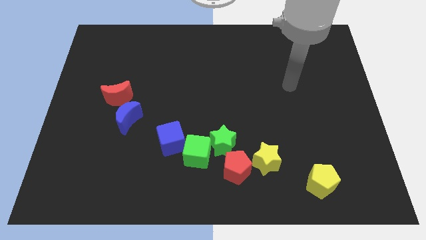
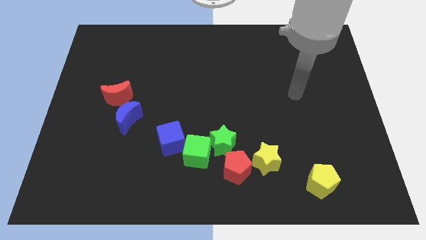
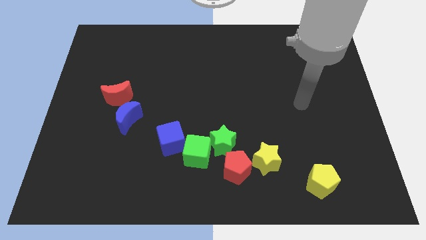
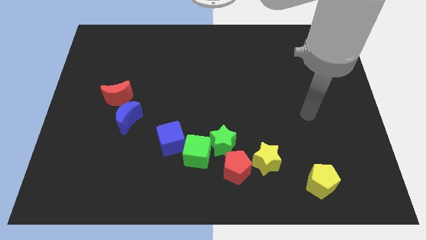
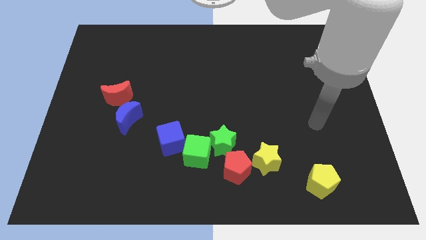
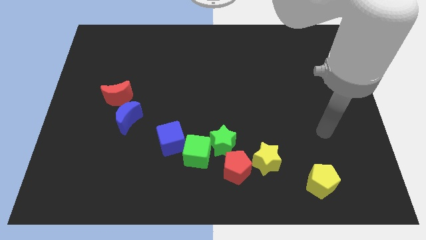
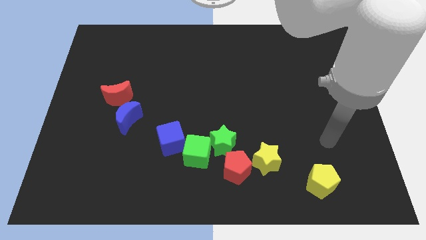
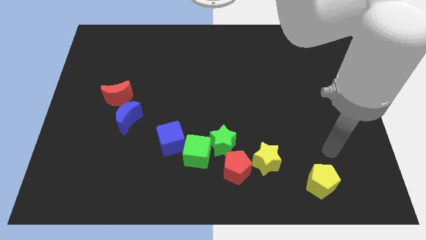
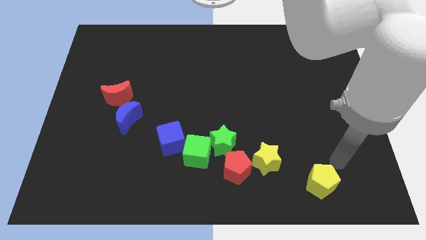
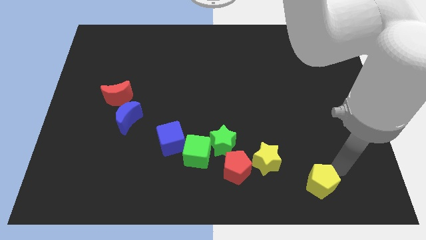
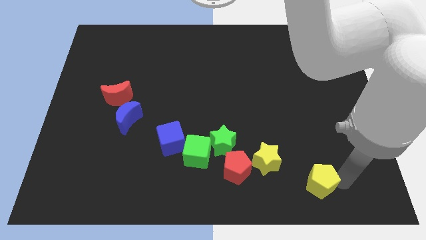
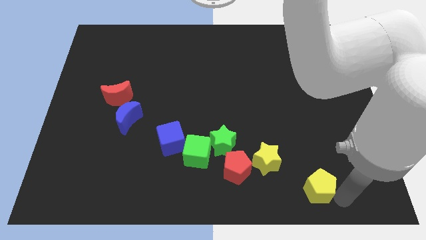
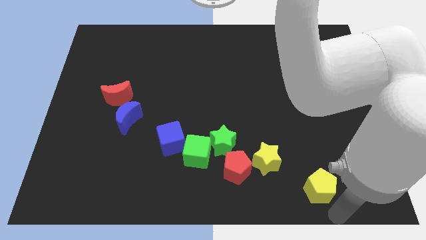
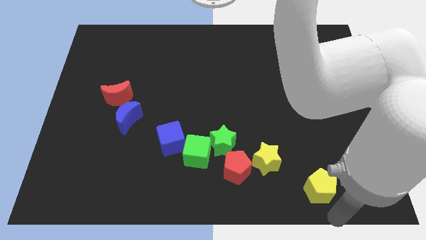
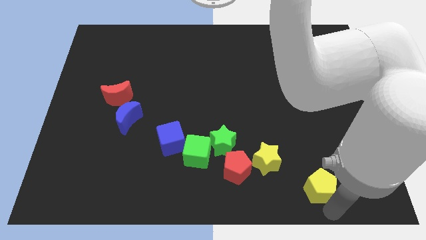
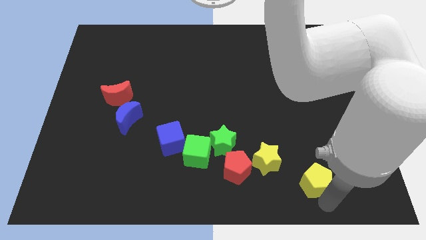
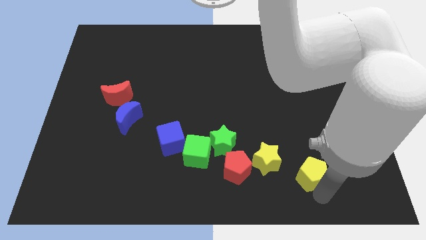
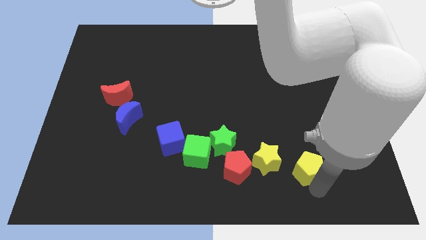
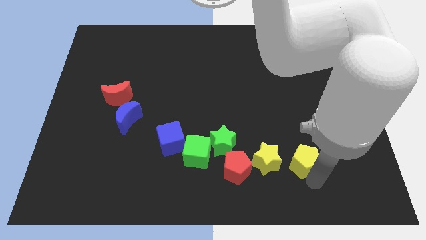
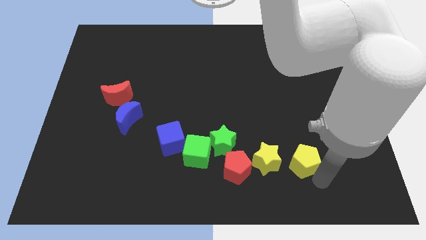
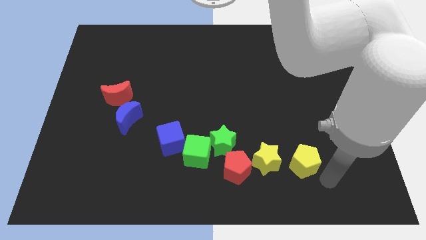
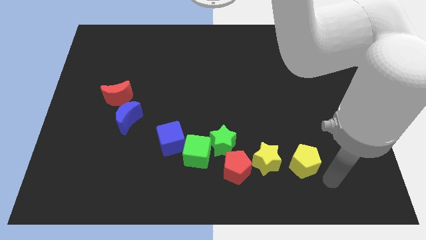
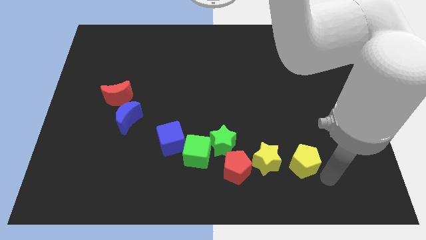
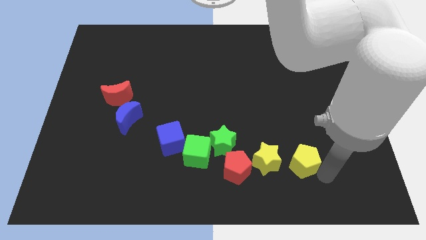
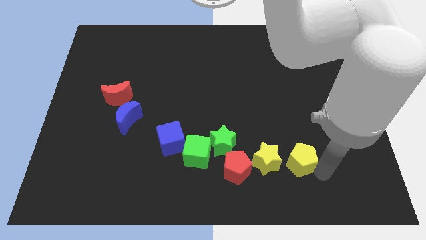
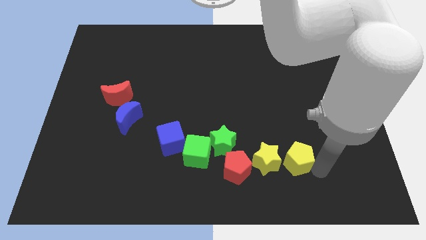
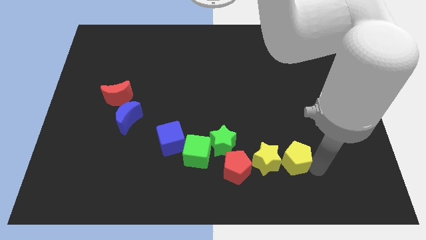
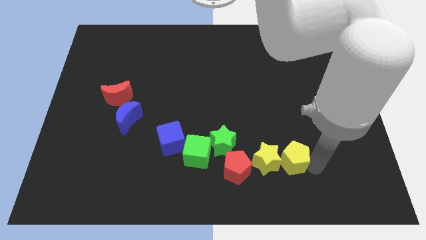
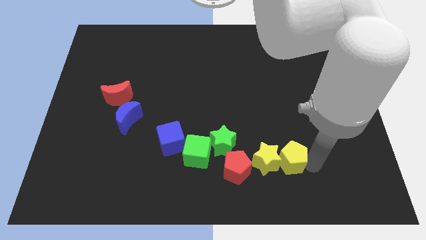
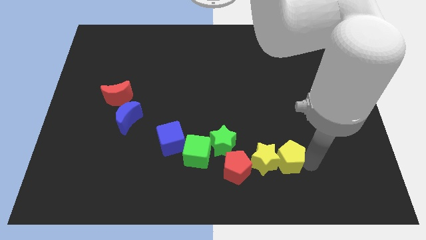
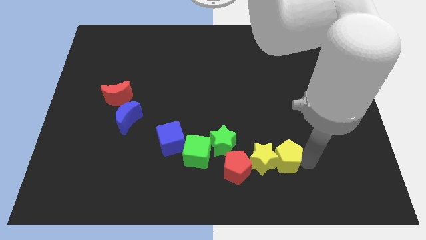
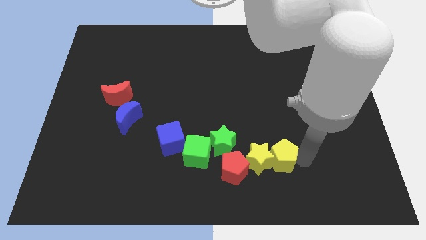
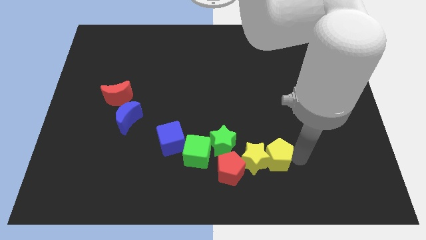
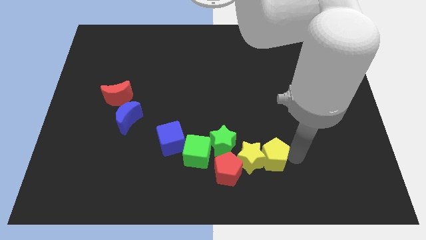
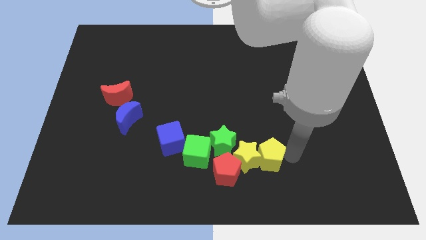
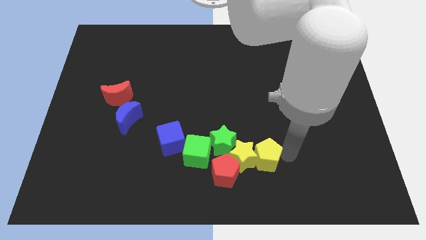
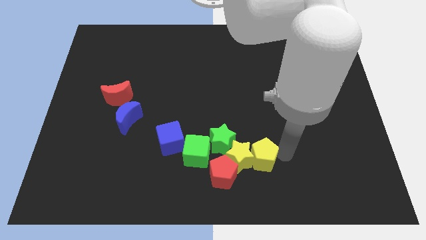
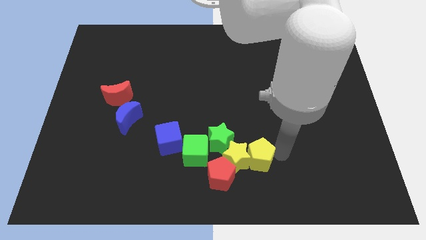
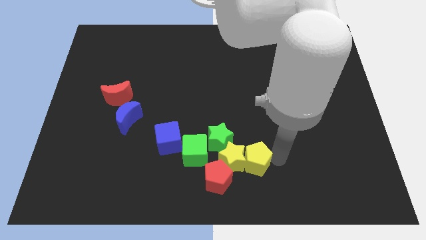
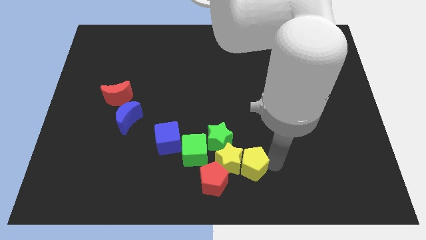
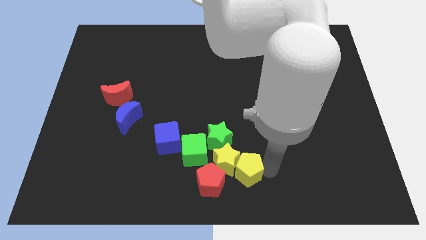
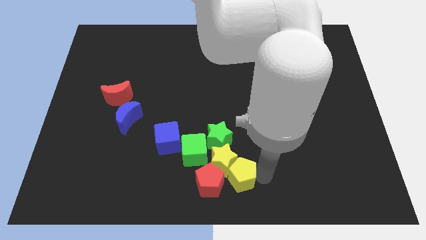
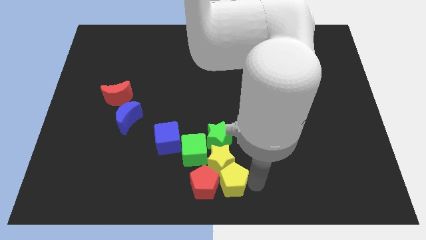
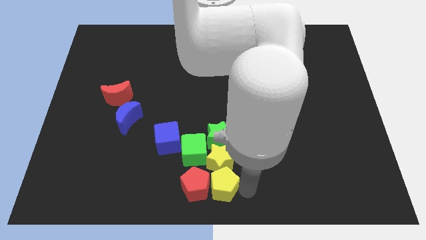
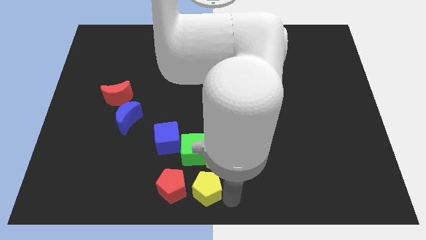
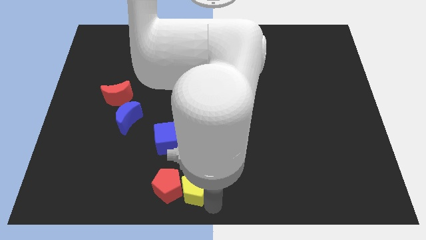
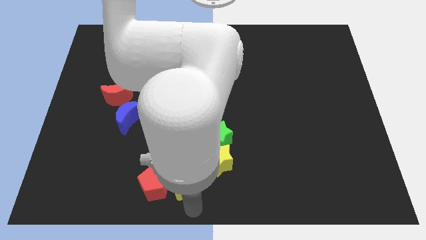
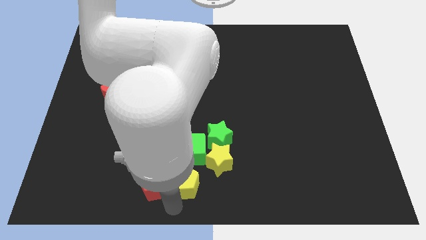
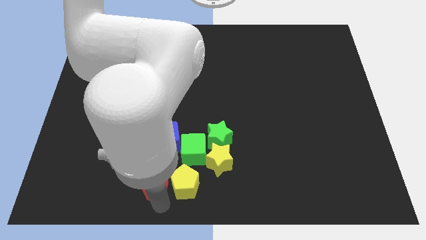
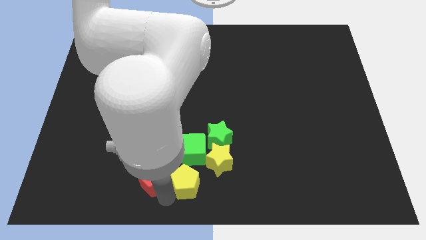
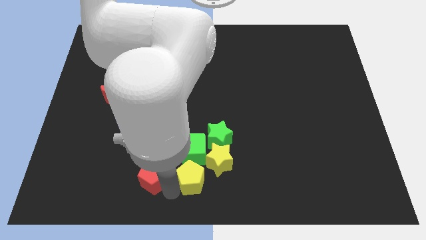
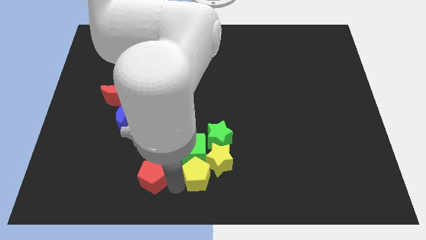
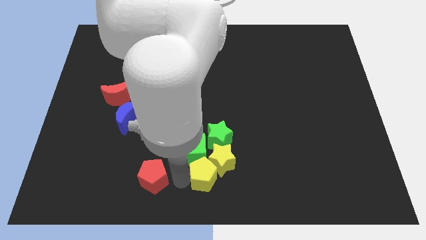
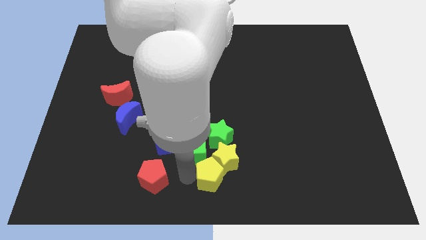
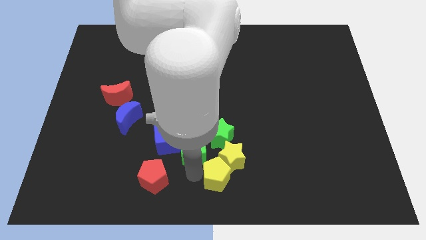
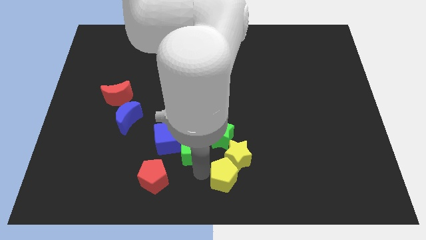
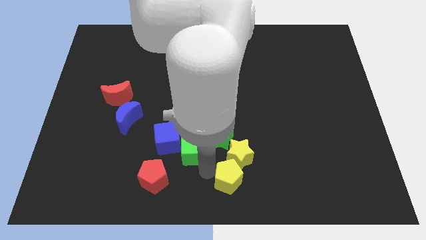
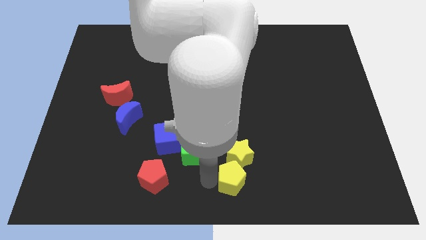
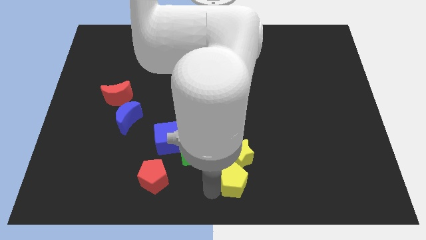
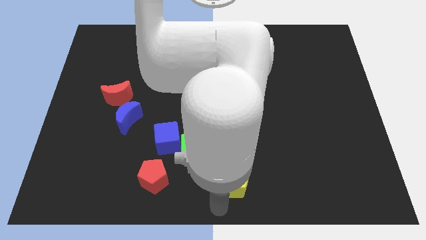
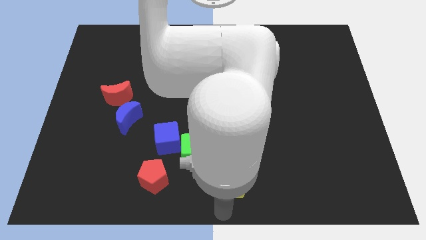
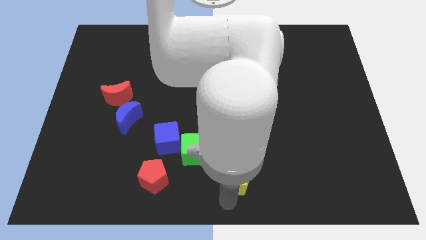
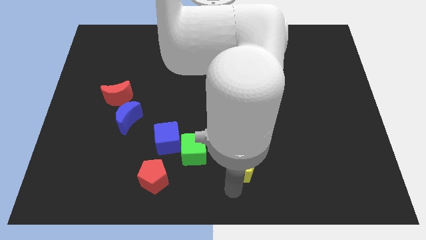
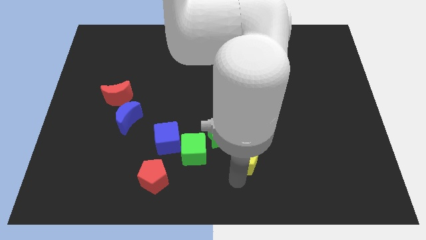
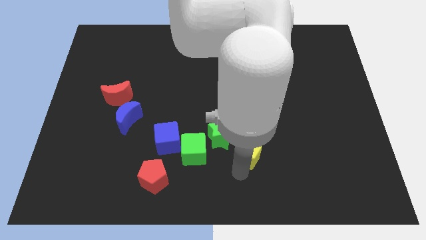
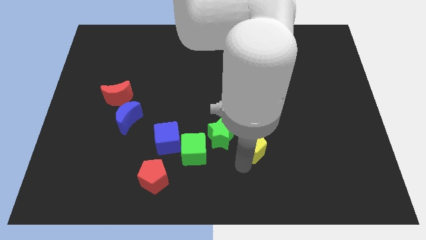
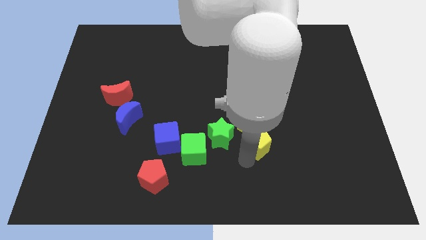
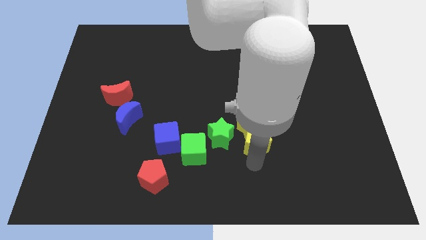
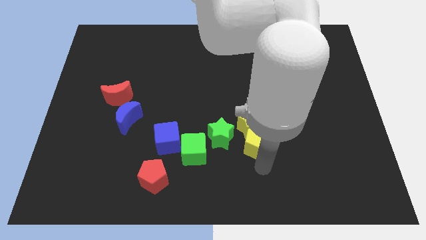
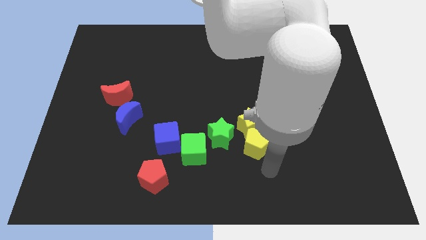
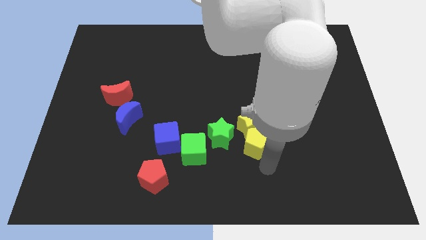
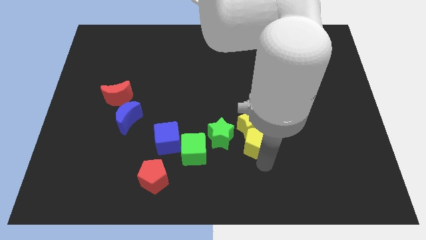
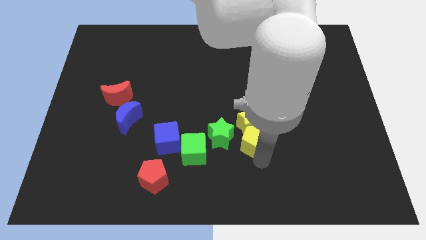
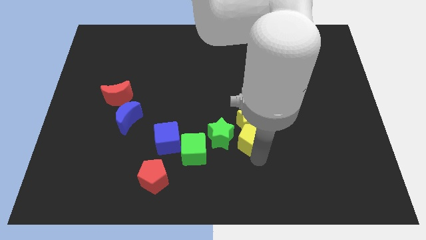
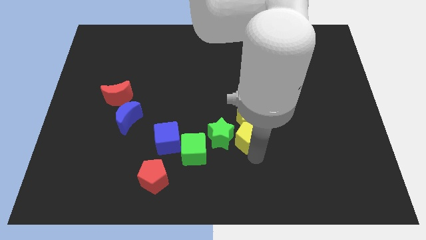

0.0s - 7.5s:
push the yellow pentagon to the top right side of the green star
